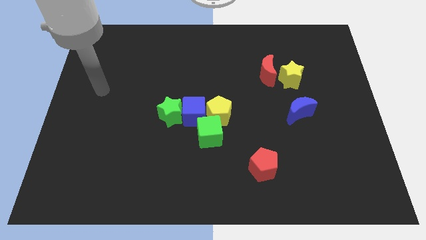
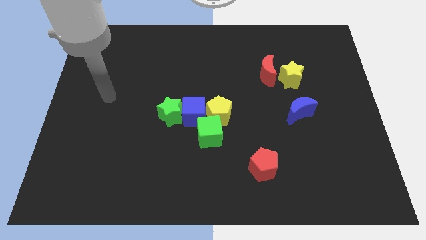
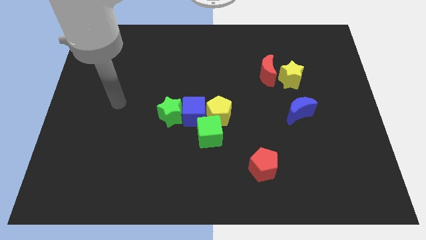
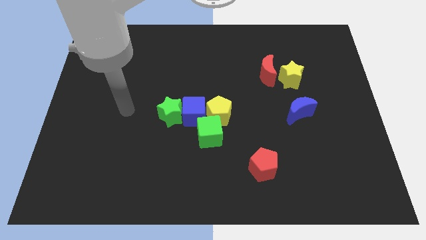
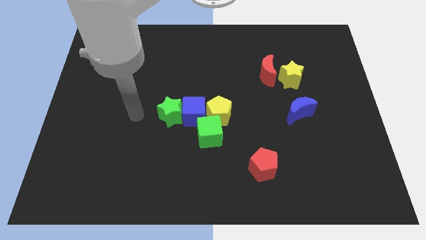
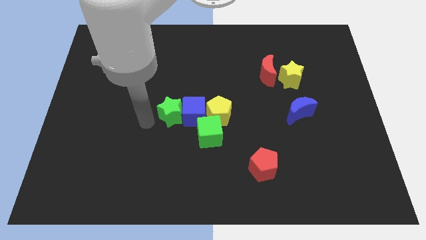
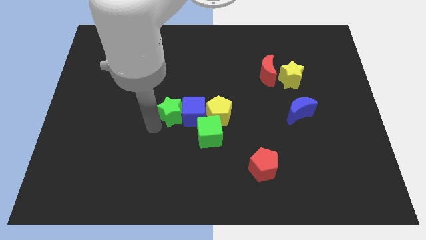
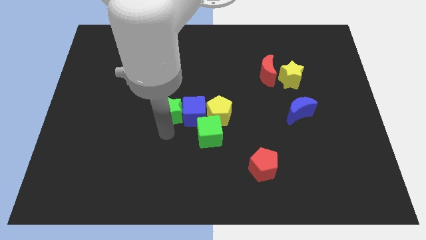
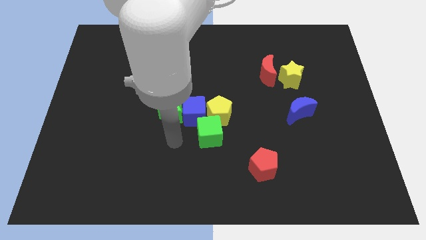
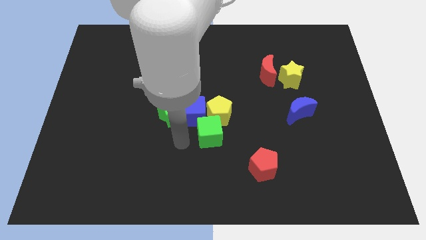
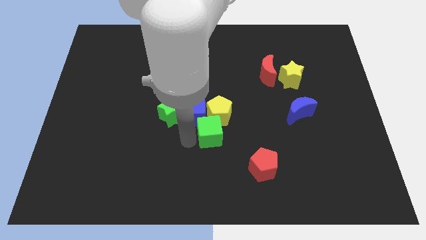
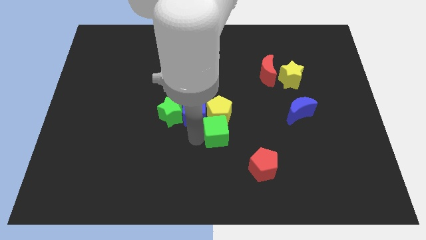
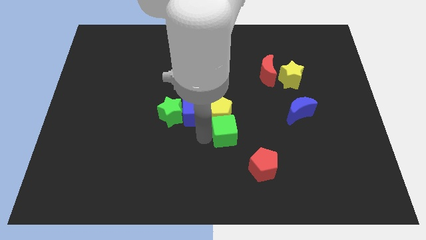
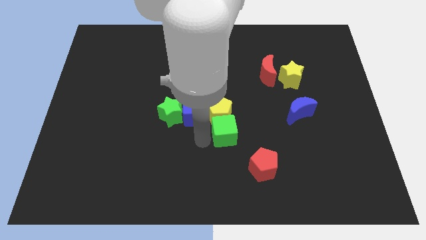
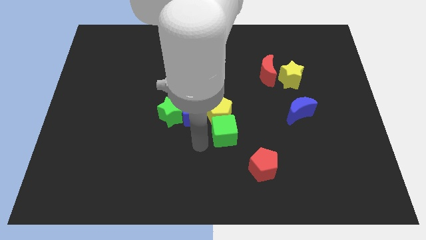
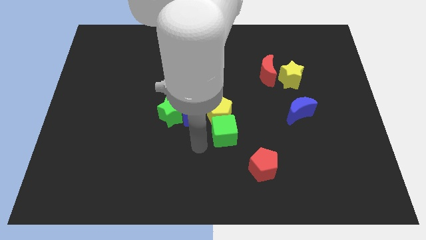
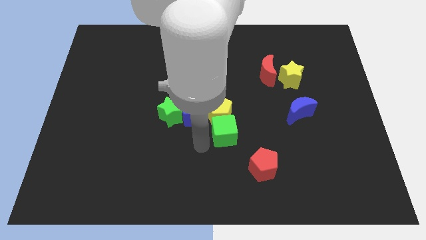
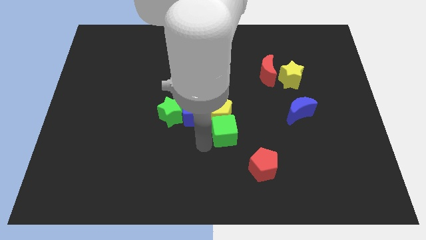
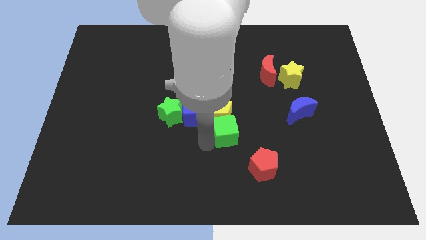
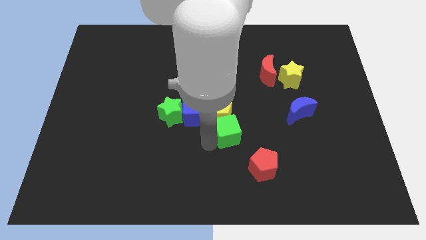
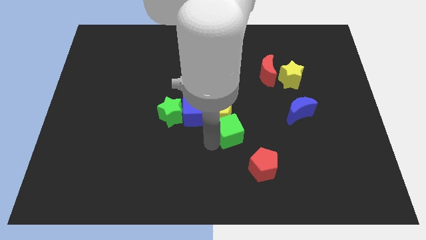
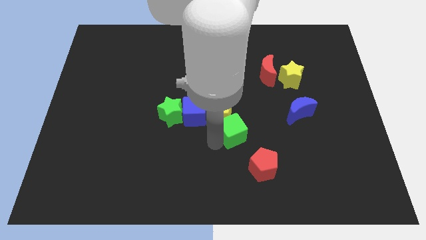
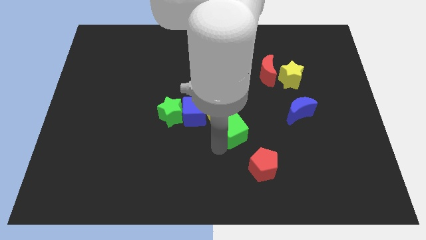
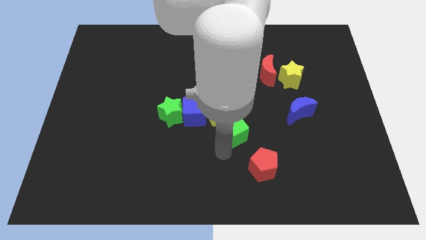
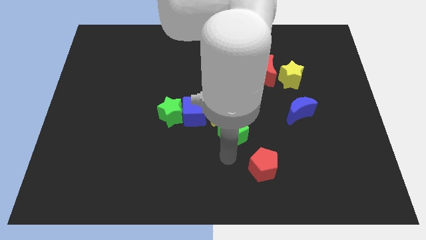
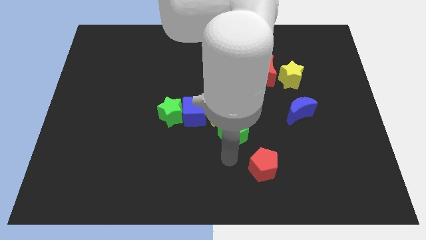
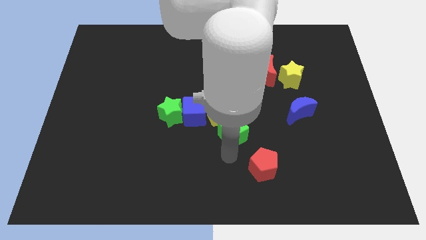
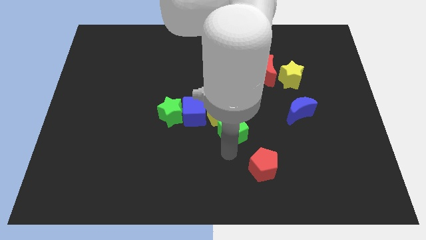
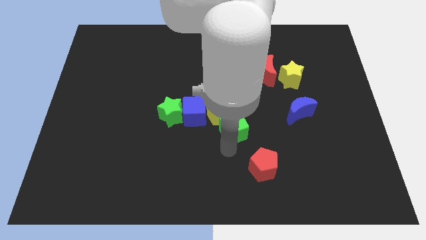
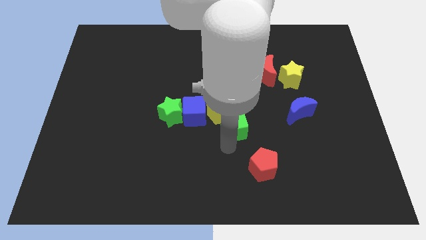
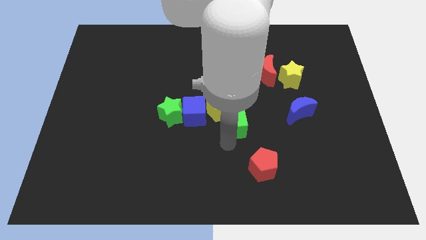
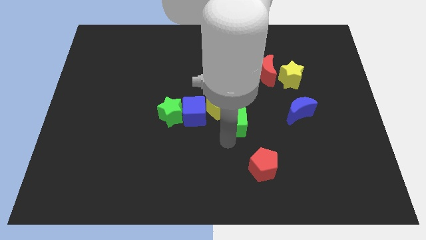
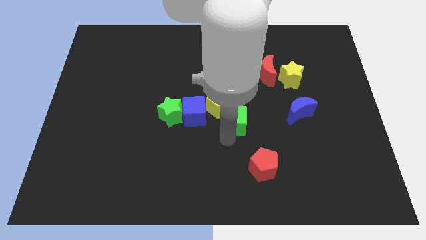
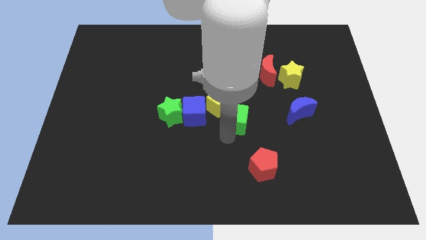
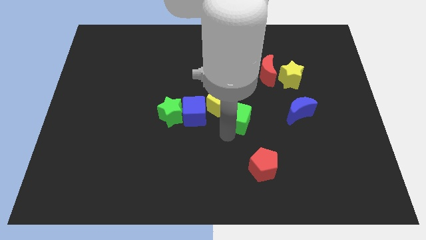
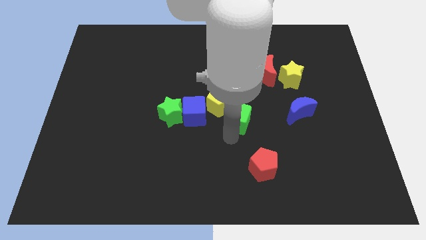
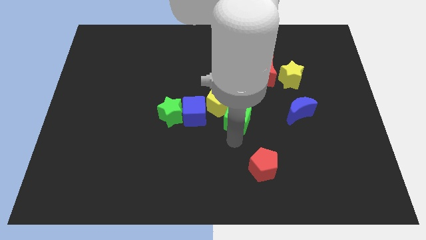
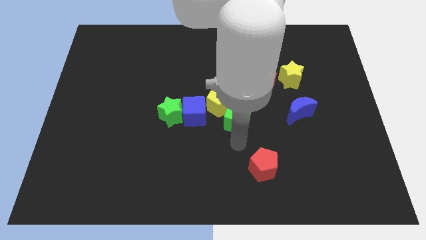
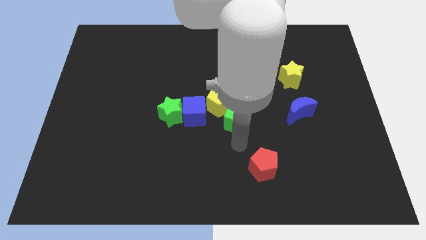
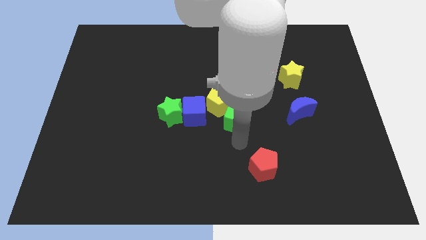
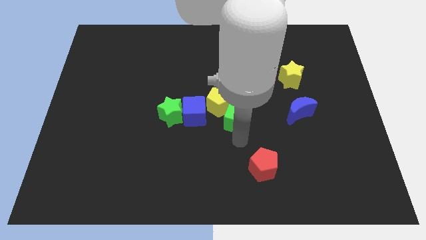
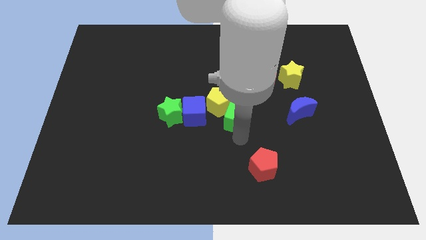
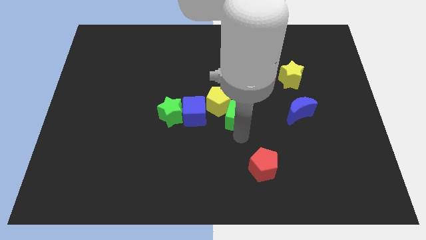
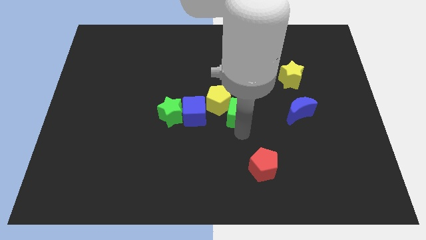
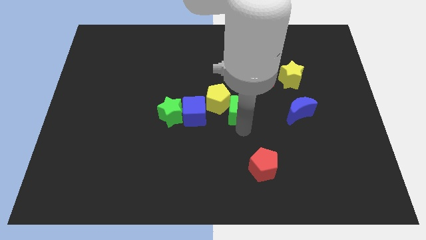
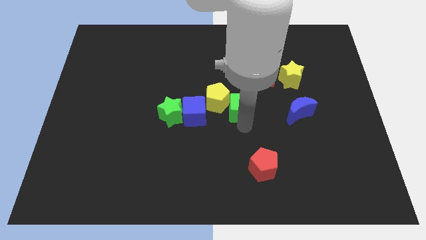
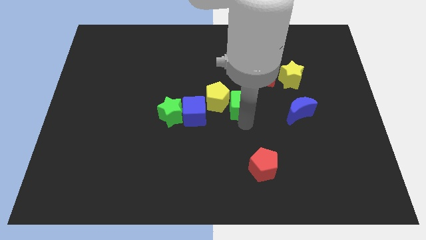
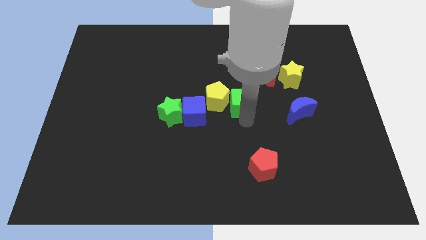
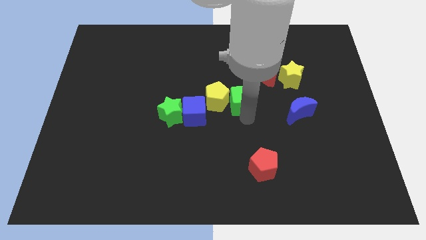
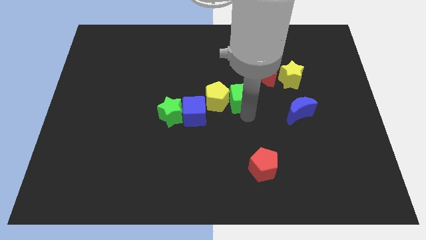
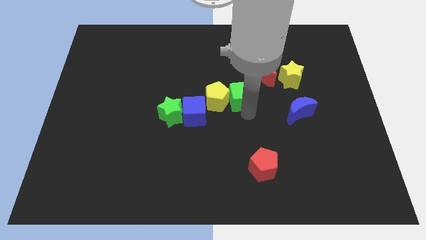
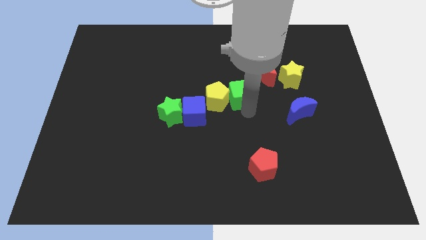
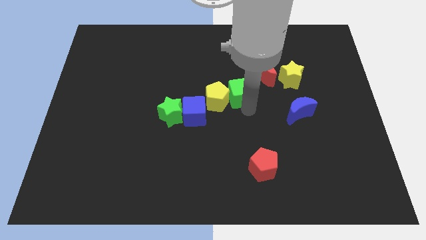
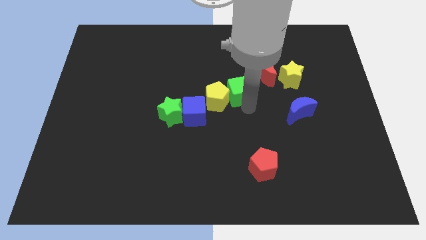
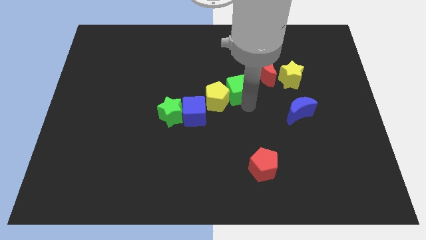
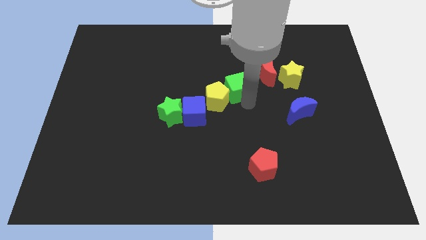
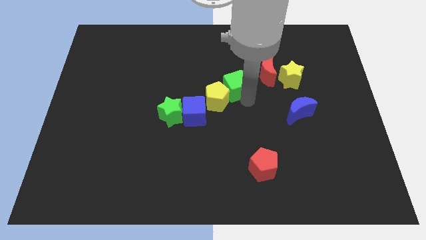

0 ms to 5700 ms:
move the green cube to the left side of the red moon

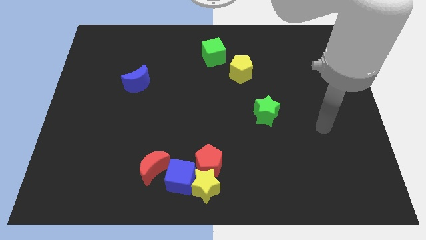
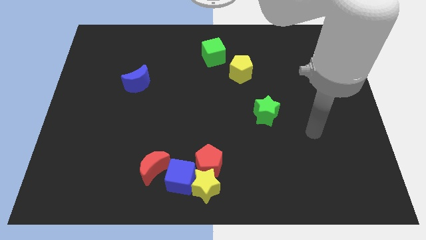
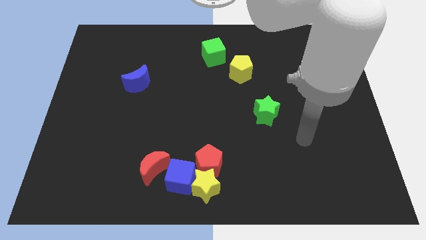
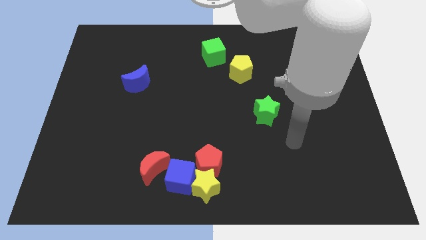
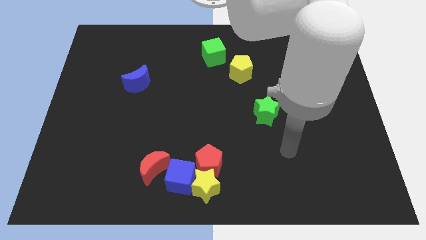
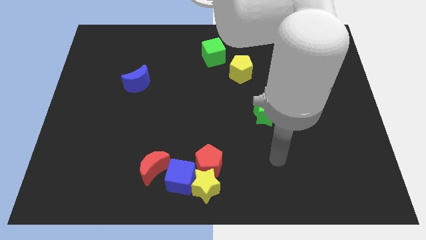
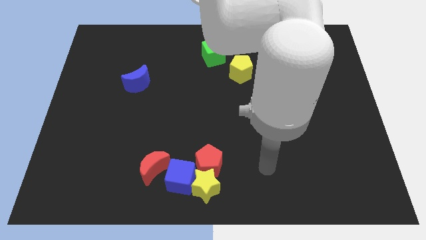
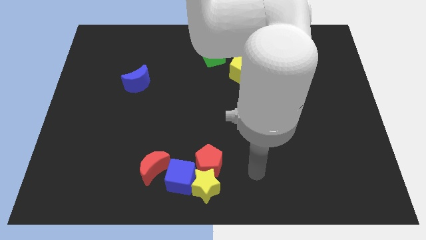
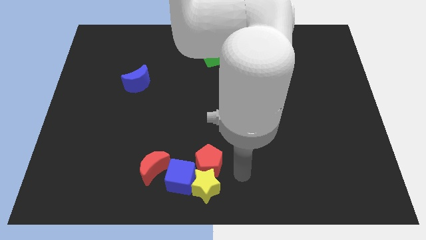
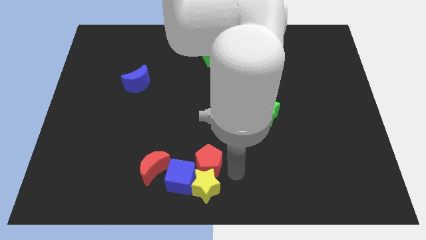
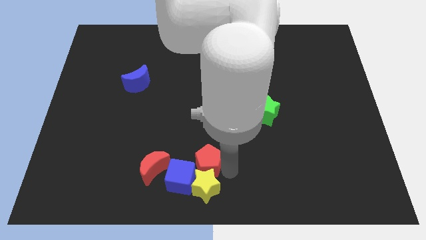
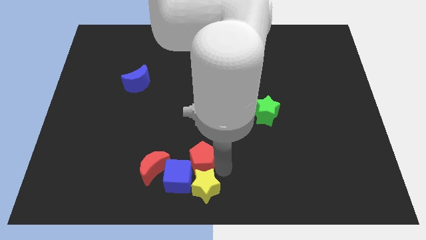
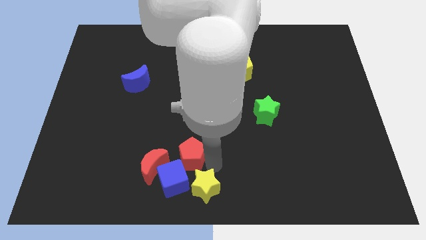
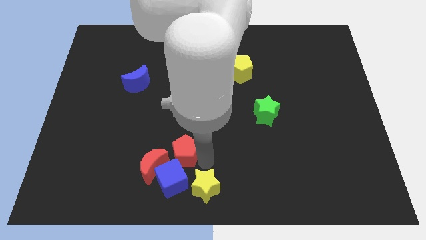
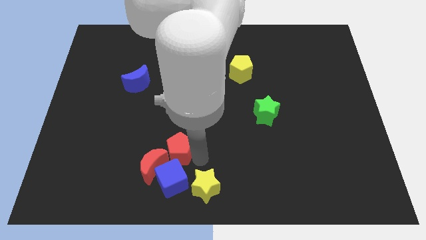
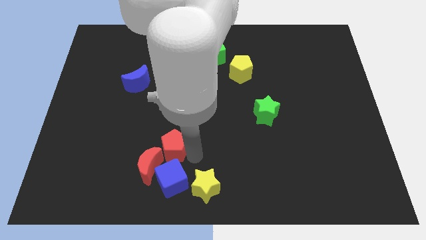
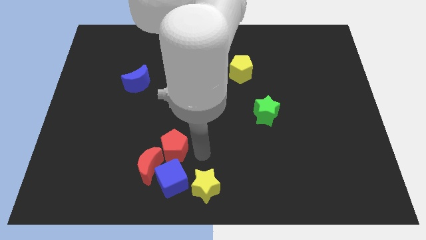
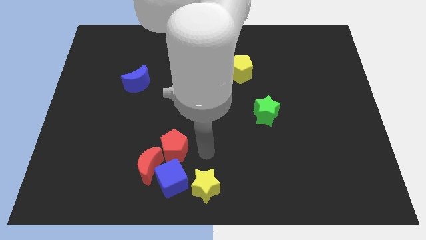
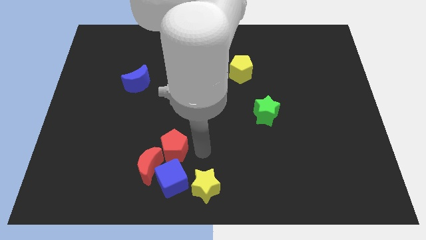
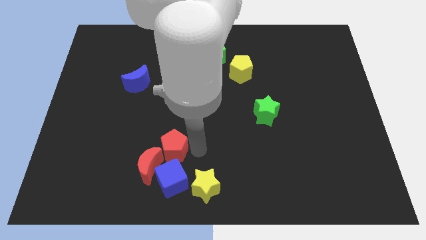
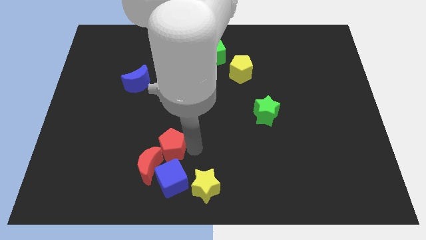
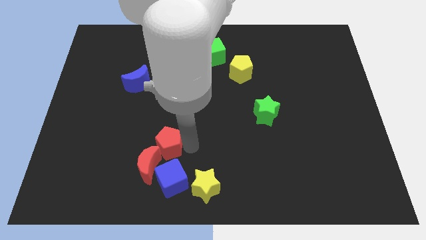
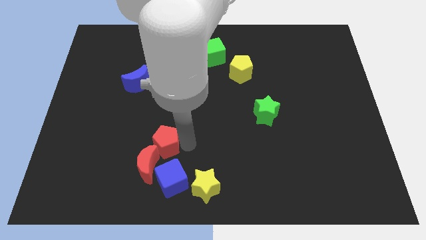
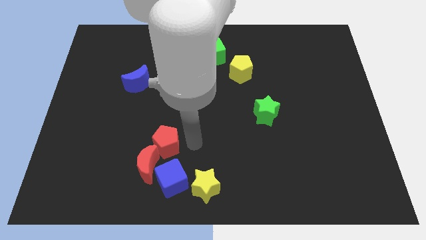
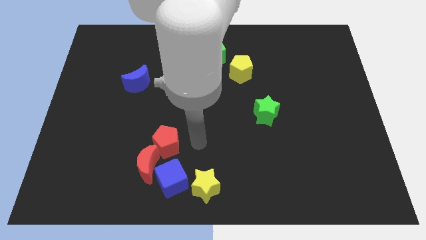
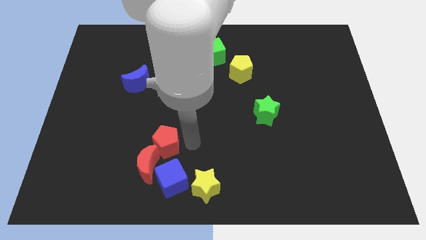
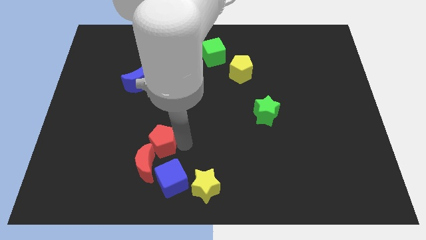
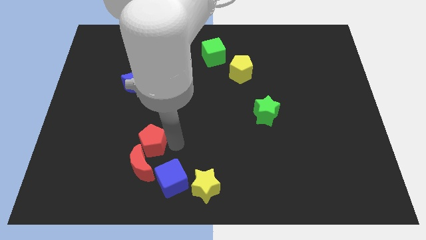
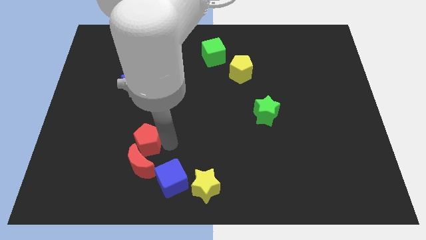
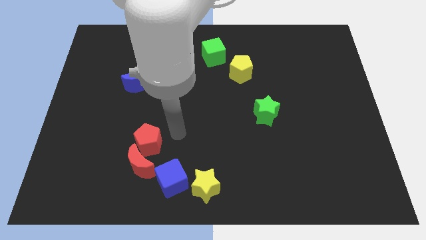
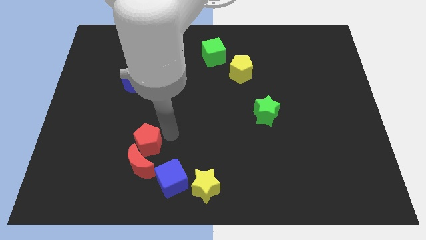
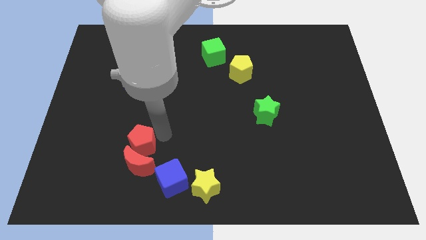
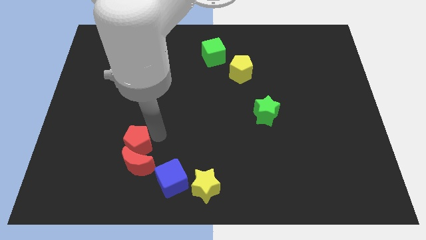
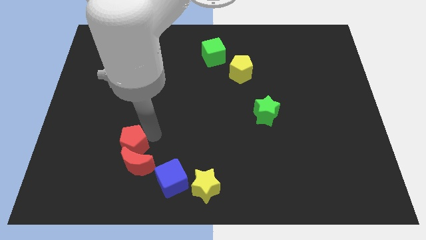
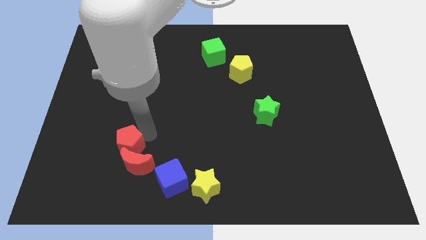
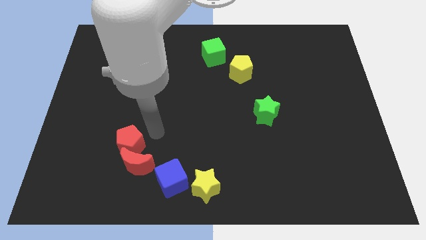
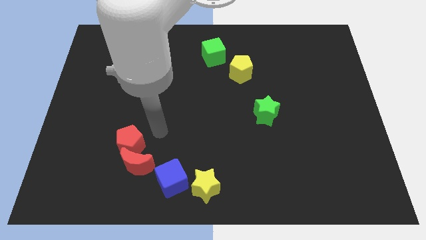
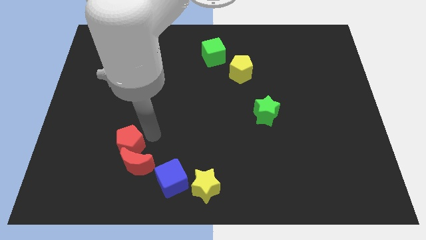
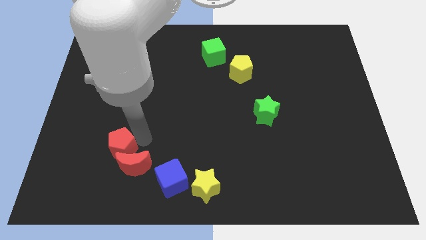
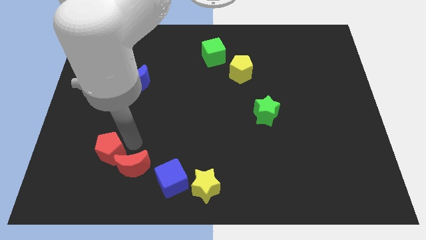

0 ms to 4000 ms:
move the red pentagon to the left of the red moon
